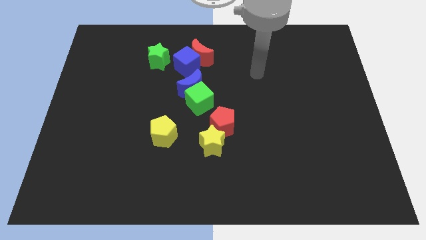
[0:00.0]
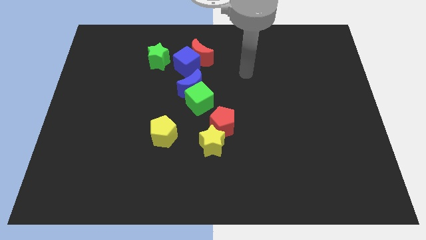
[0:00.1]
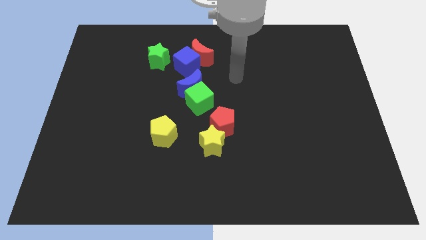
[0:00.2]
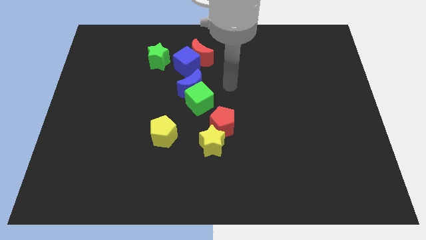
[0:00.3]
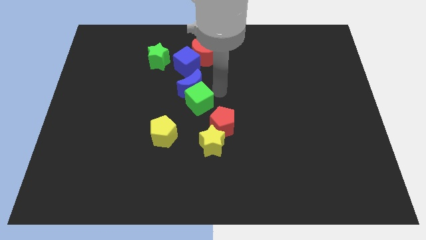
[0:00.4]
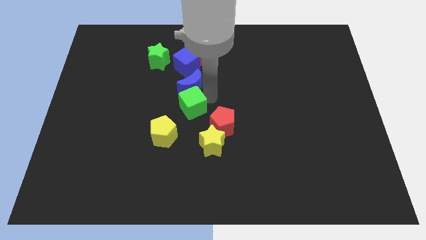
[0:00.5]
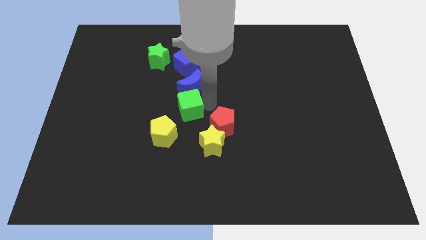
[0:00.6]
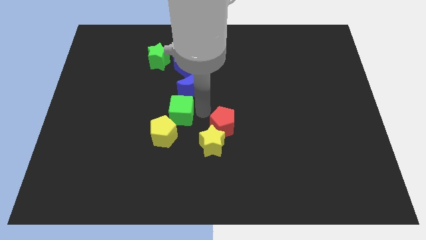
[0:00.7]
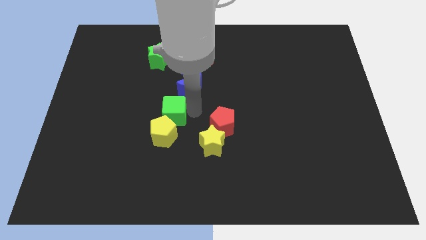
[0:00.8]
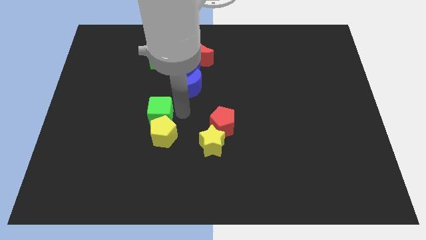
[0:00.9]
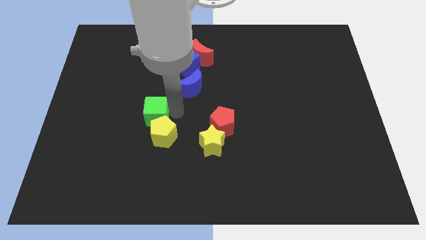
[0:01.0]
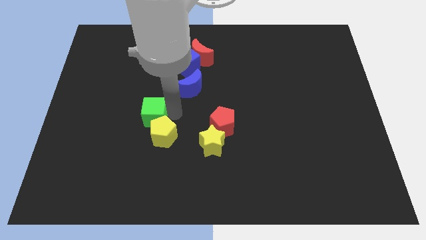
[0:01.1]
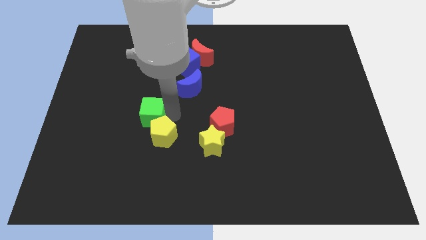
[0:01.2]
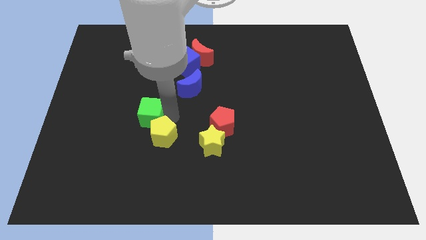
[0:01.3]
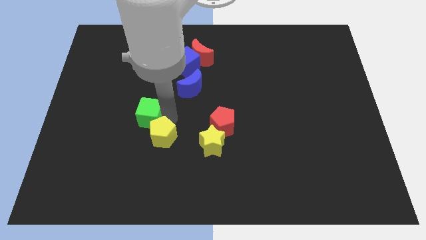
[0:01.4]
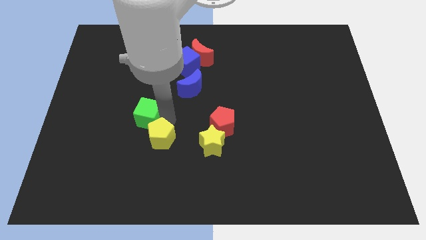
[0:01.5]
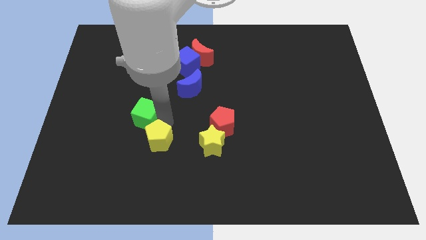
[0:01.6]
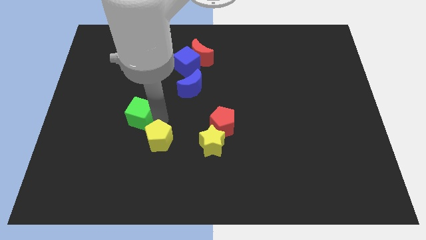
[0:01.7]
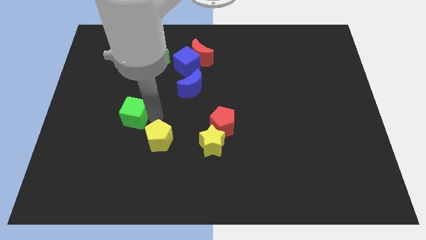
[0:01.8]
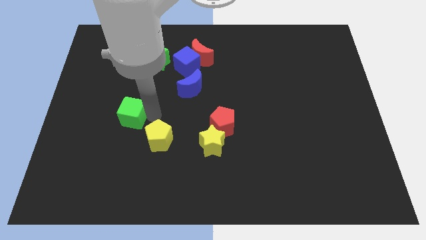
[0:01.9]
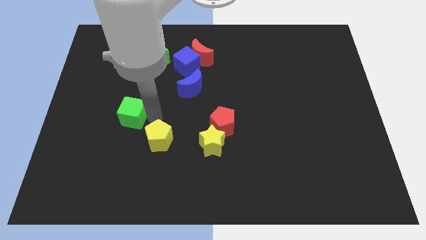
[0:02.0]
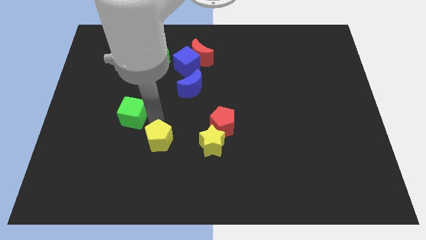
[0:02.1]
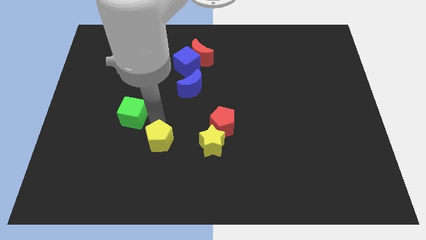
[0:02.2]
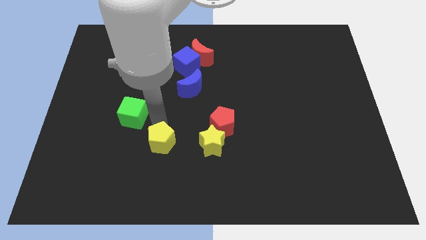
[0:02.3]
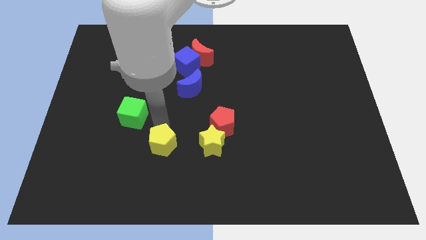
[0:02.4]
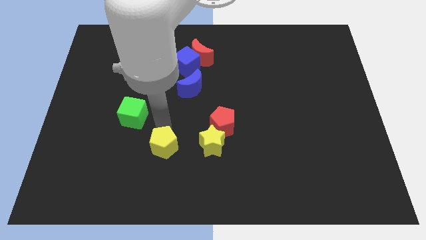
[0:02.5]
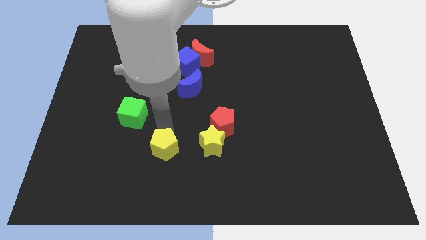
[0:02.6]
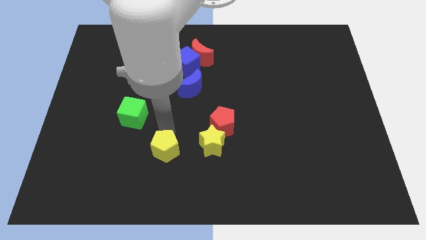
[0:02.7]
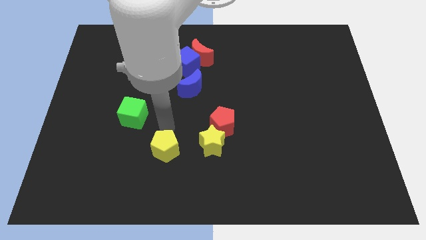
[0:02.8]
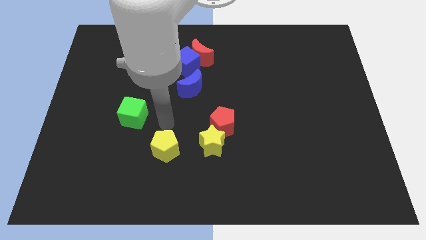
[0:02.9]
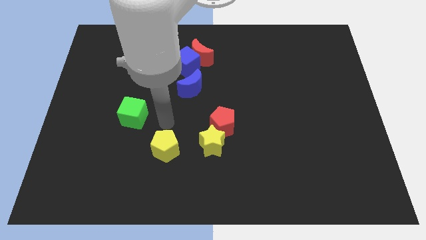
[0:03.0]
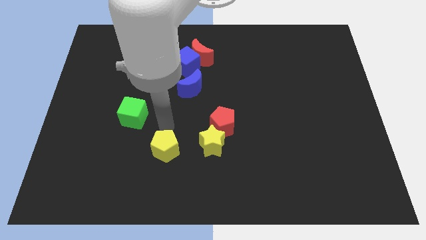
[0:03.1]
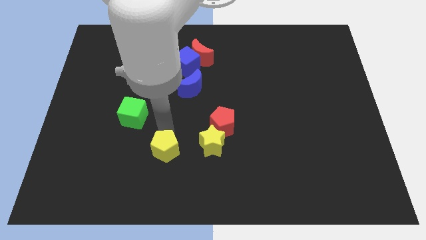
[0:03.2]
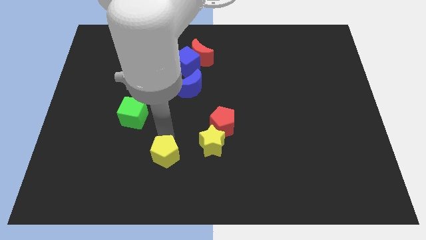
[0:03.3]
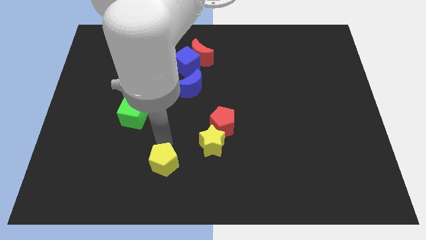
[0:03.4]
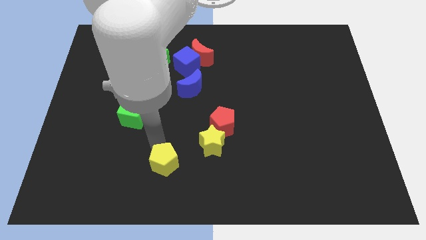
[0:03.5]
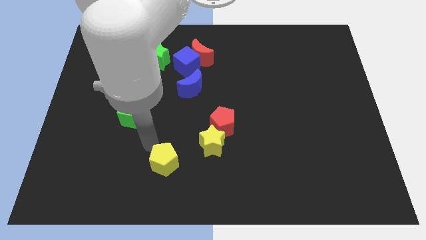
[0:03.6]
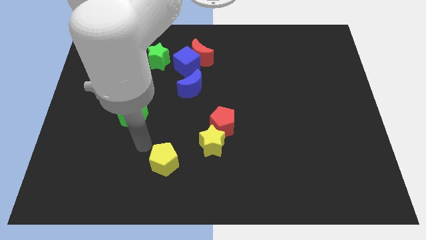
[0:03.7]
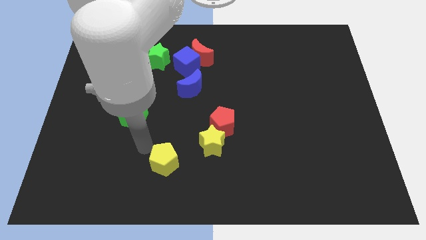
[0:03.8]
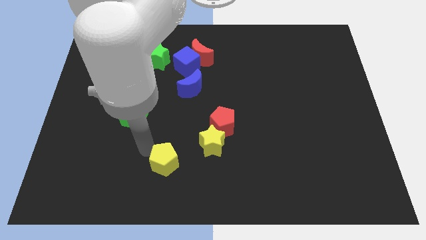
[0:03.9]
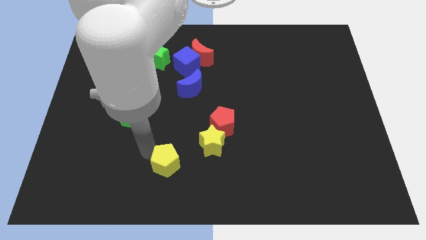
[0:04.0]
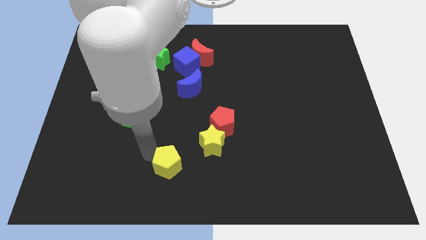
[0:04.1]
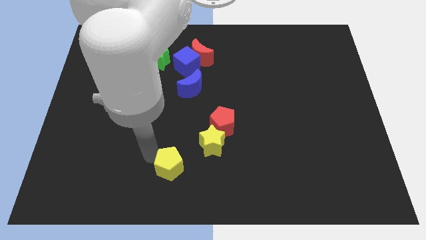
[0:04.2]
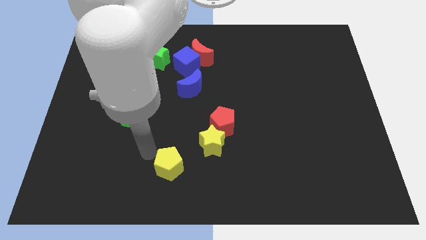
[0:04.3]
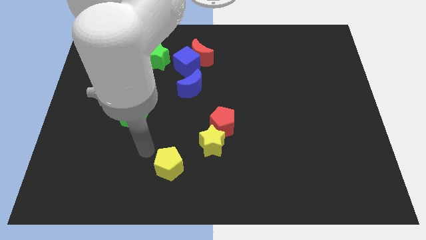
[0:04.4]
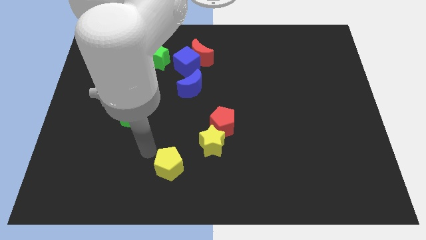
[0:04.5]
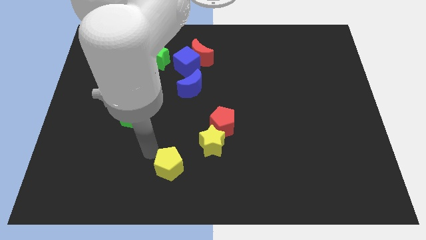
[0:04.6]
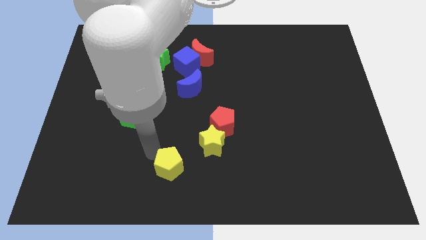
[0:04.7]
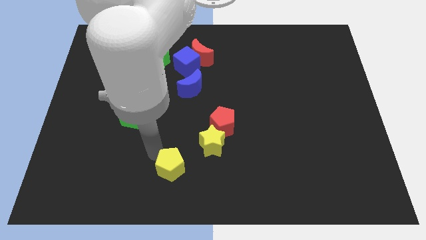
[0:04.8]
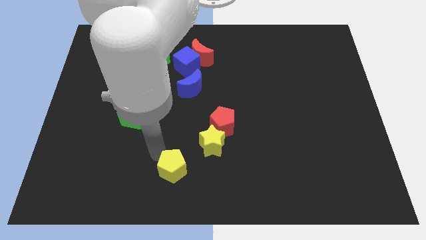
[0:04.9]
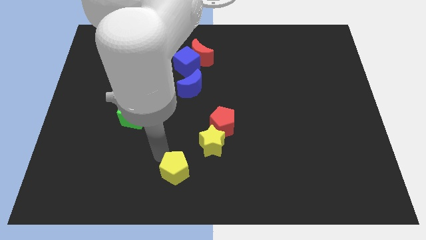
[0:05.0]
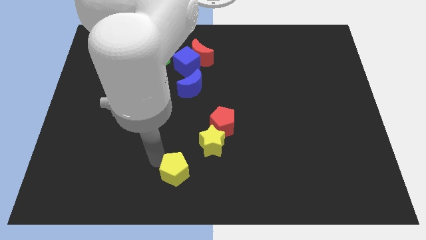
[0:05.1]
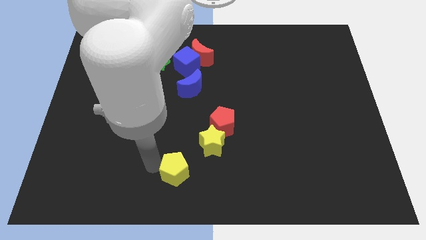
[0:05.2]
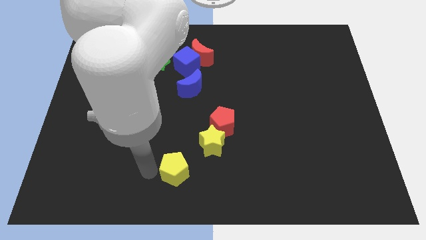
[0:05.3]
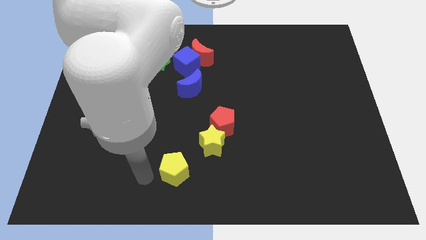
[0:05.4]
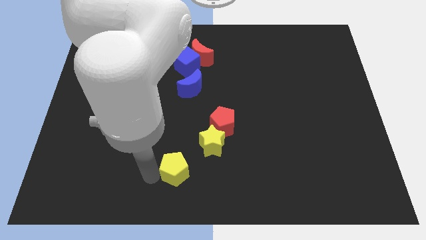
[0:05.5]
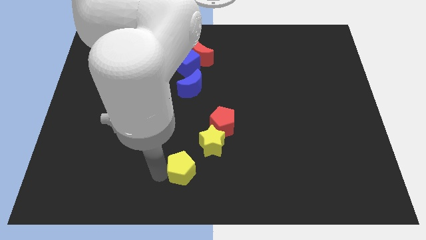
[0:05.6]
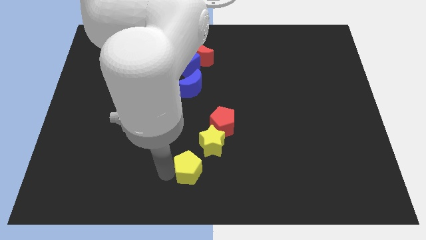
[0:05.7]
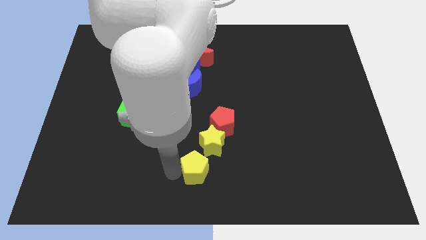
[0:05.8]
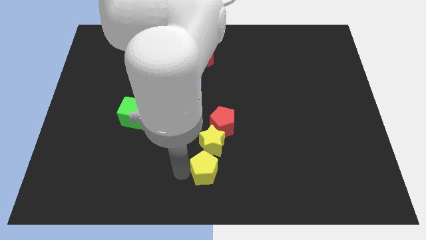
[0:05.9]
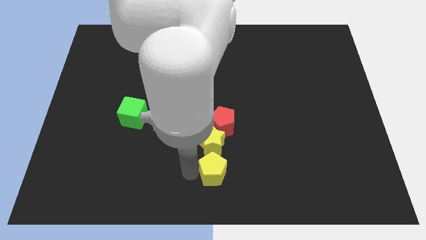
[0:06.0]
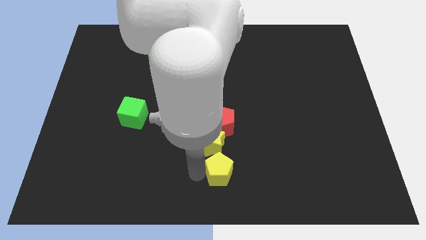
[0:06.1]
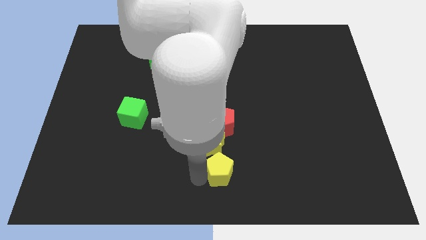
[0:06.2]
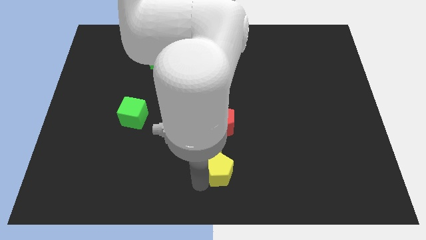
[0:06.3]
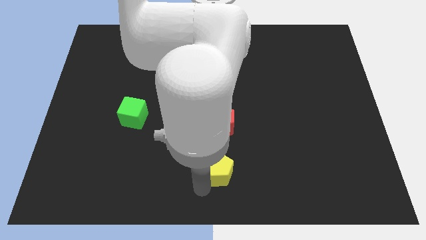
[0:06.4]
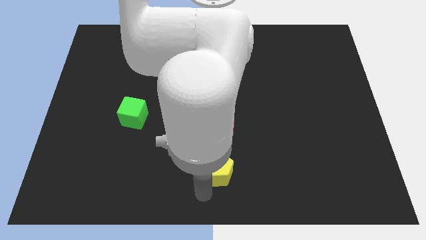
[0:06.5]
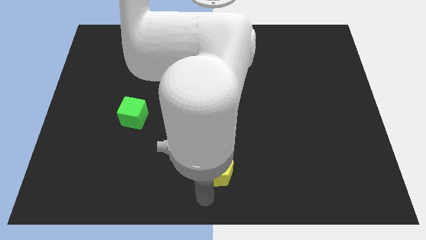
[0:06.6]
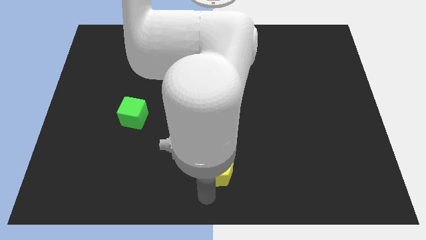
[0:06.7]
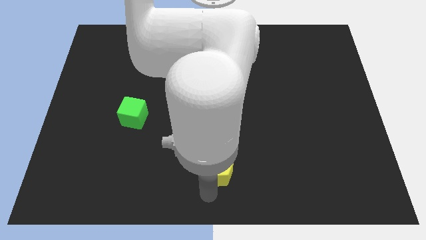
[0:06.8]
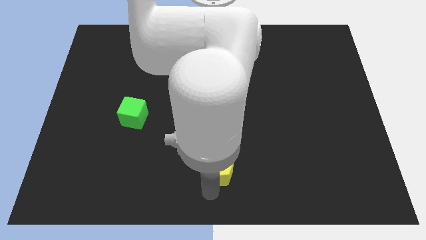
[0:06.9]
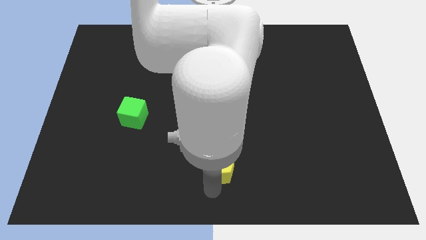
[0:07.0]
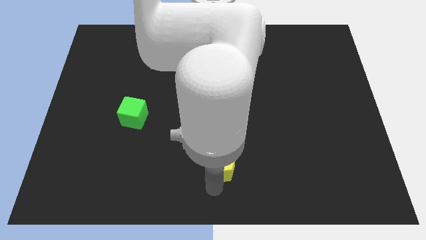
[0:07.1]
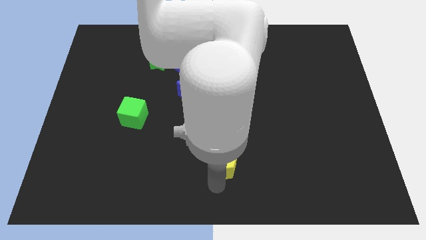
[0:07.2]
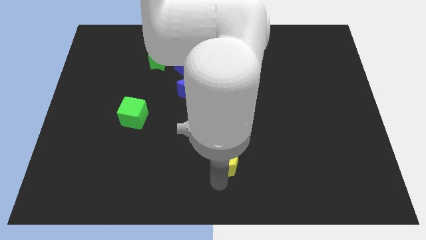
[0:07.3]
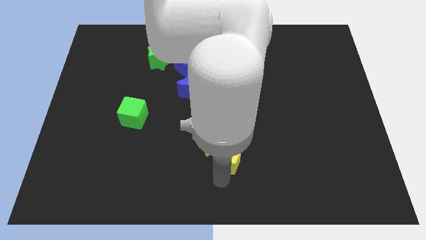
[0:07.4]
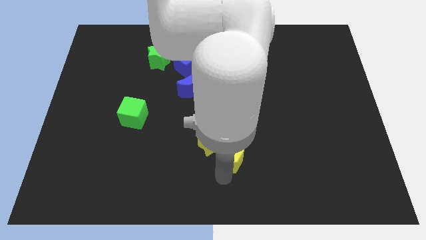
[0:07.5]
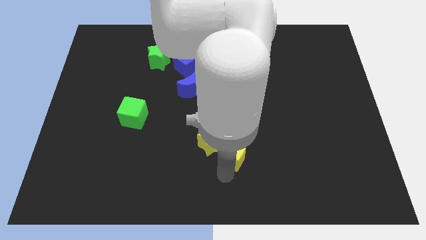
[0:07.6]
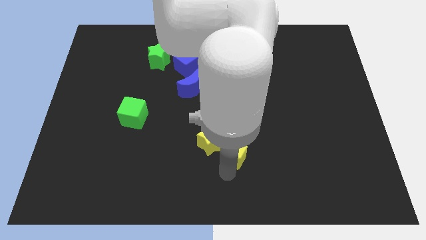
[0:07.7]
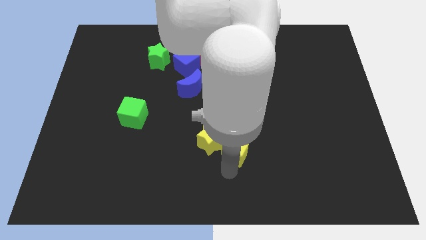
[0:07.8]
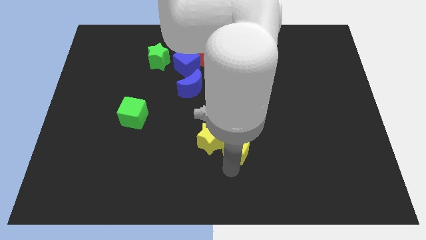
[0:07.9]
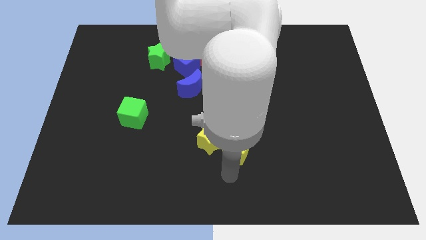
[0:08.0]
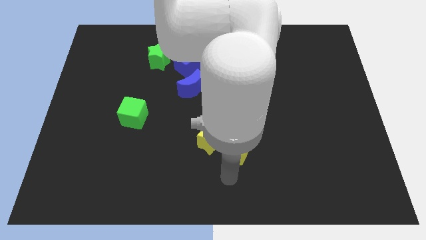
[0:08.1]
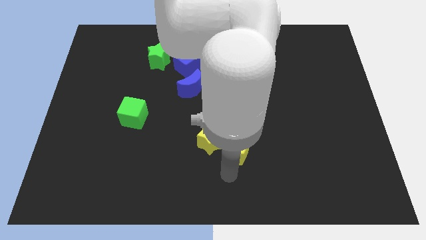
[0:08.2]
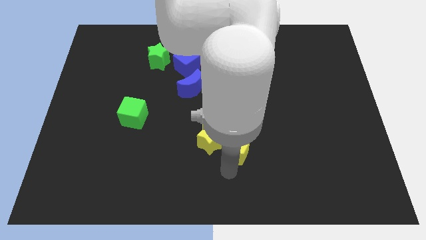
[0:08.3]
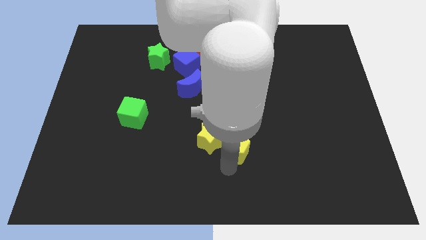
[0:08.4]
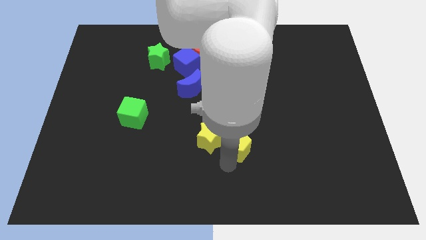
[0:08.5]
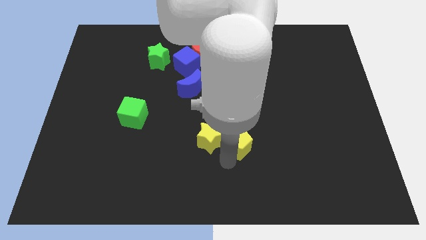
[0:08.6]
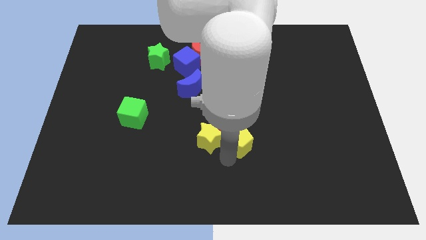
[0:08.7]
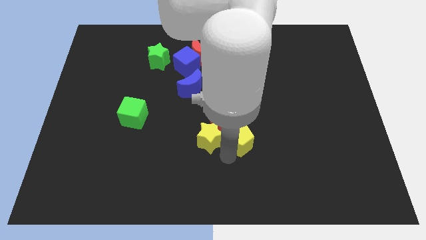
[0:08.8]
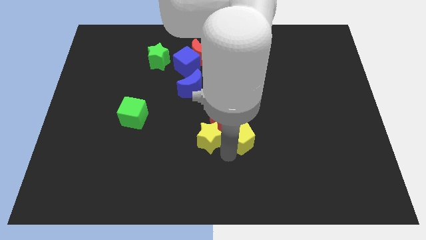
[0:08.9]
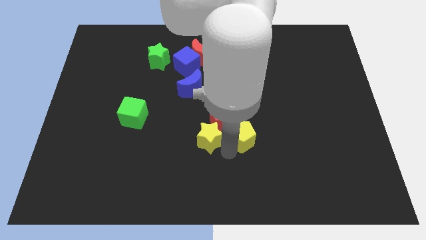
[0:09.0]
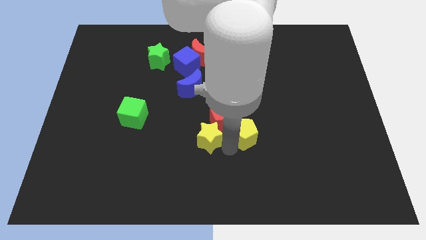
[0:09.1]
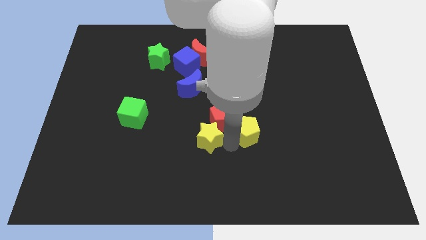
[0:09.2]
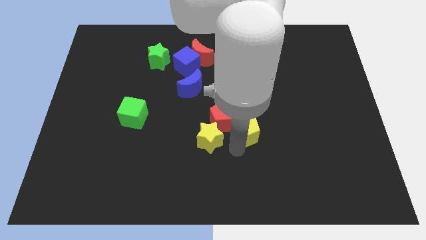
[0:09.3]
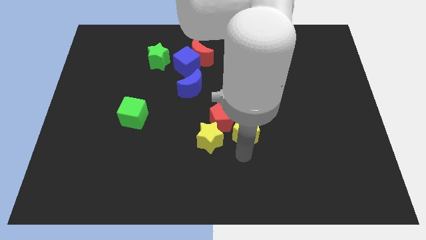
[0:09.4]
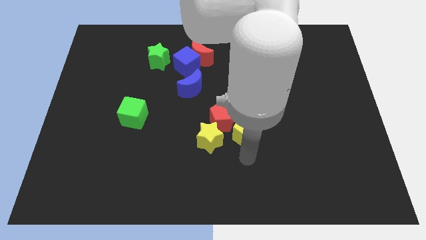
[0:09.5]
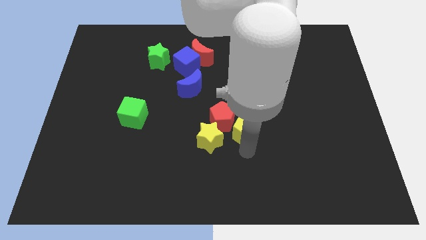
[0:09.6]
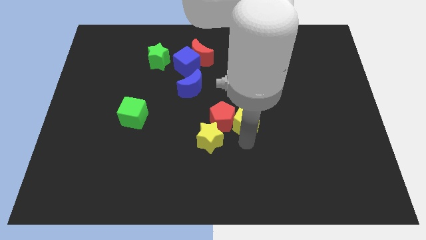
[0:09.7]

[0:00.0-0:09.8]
slide the yellow pentagon to the top right of the red pentagon
